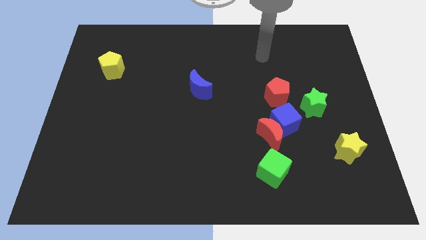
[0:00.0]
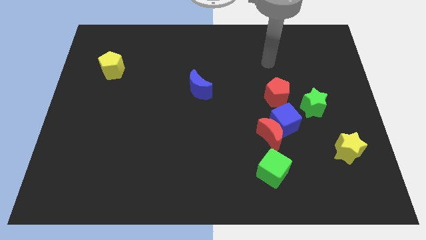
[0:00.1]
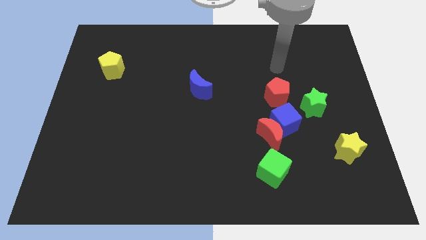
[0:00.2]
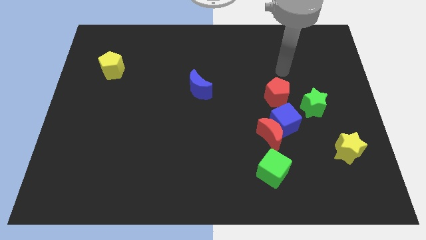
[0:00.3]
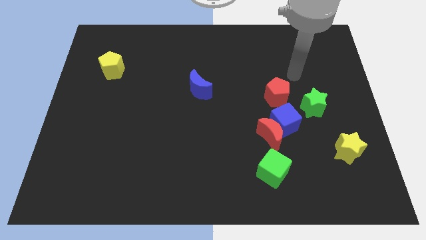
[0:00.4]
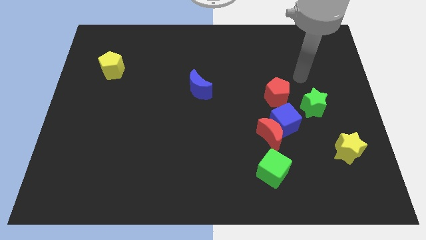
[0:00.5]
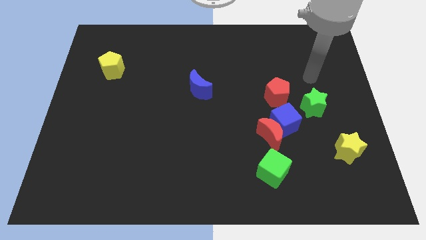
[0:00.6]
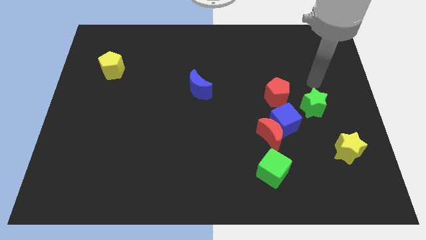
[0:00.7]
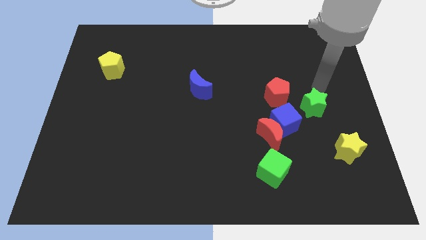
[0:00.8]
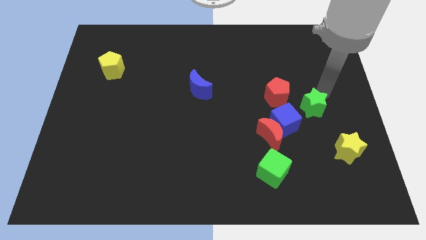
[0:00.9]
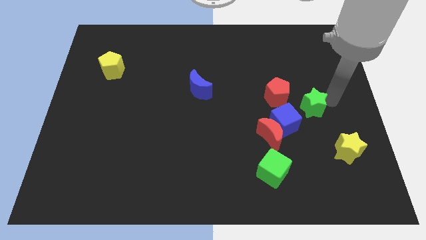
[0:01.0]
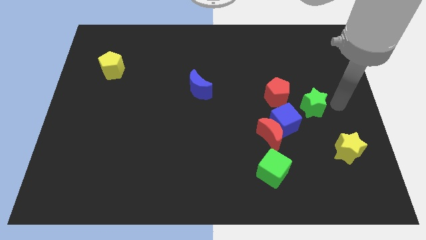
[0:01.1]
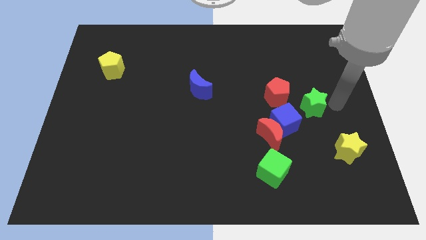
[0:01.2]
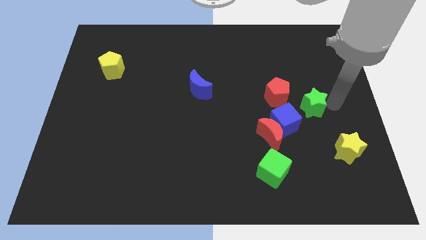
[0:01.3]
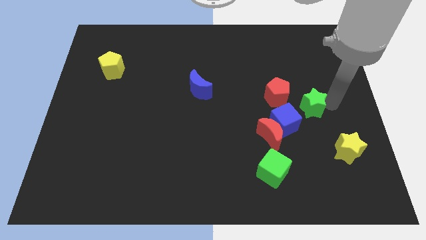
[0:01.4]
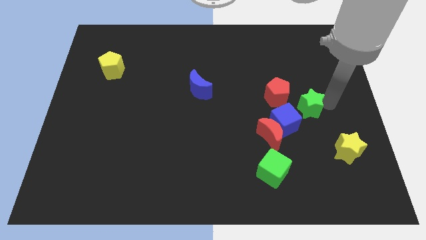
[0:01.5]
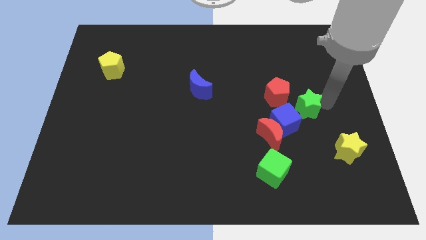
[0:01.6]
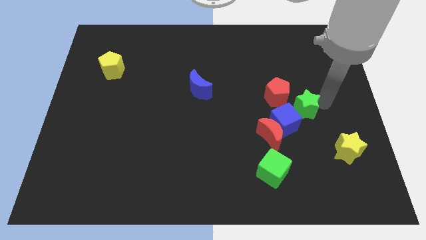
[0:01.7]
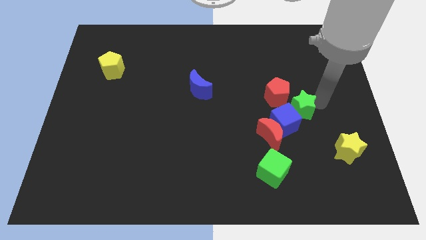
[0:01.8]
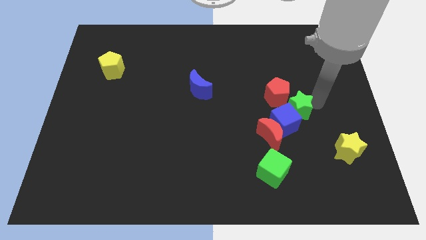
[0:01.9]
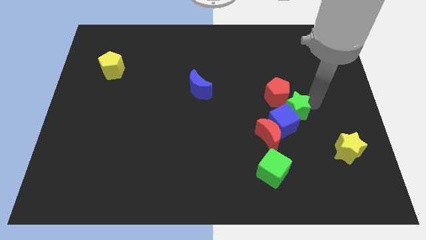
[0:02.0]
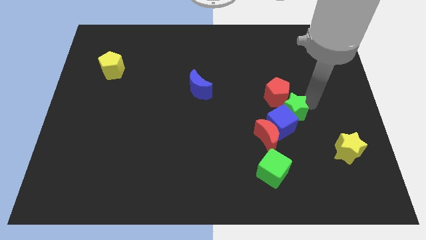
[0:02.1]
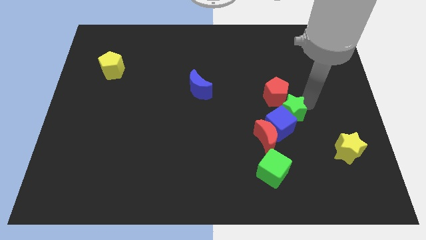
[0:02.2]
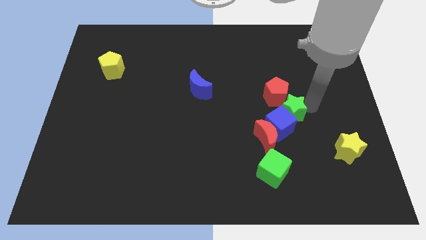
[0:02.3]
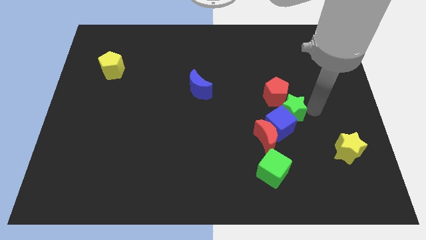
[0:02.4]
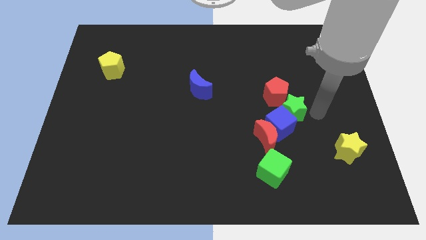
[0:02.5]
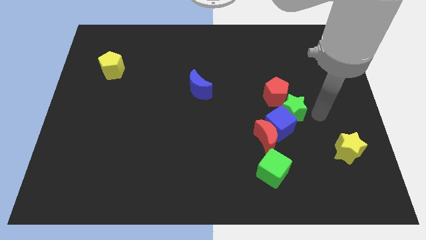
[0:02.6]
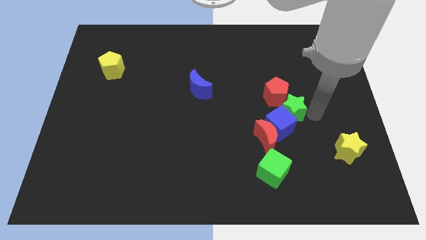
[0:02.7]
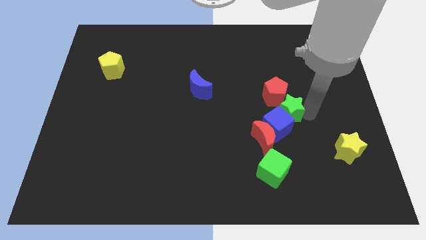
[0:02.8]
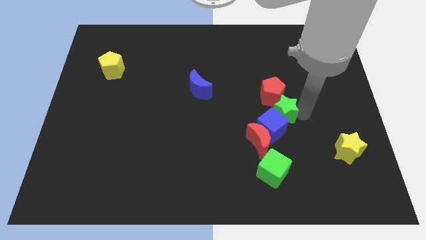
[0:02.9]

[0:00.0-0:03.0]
slightly slide the green star to the left

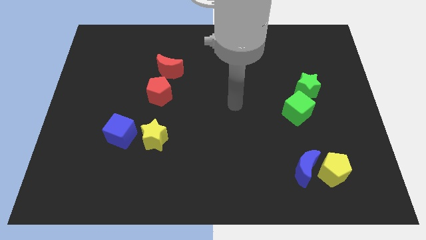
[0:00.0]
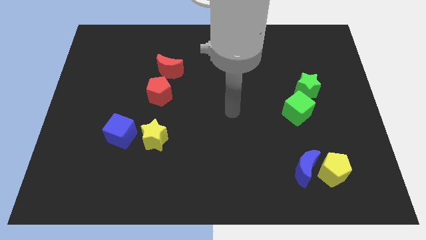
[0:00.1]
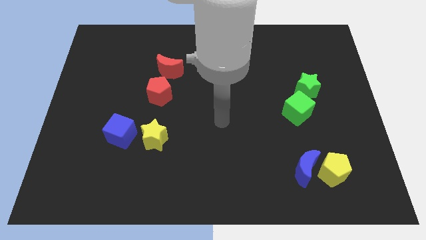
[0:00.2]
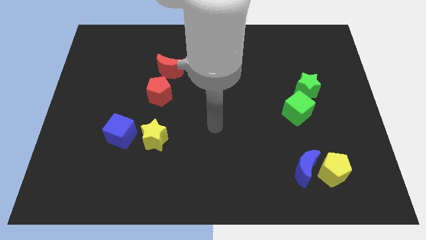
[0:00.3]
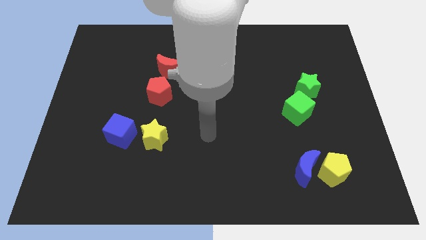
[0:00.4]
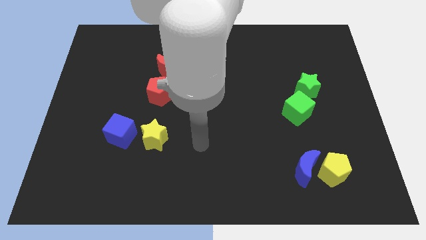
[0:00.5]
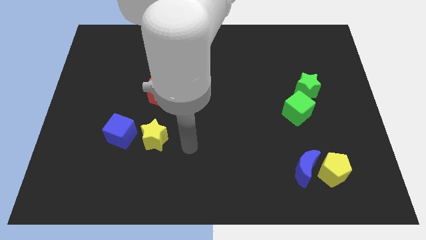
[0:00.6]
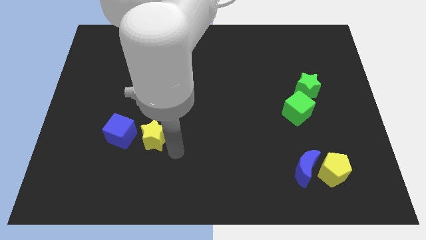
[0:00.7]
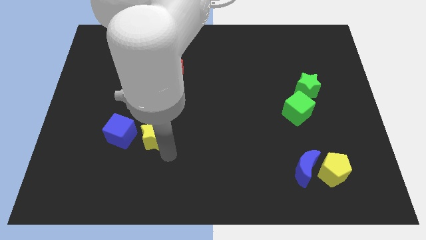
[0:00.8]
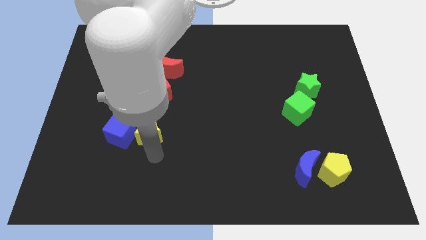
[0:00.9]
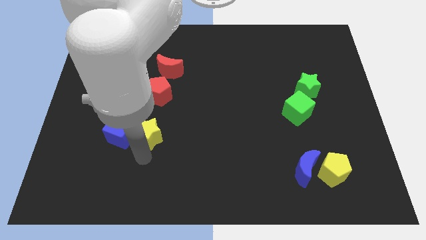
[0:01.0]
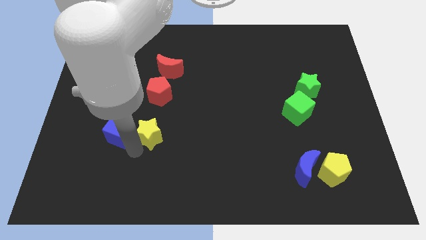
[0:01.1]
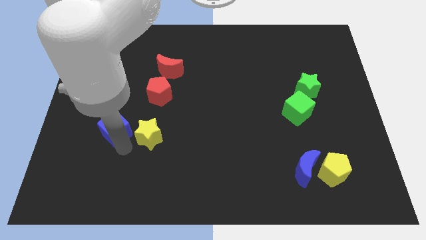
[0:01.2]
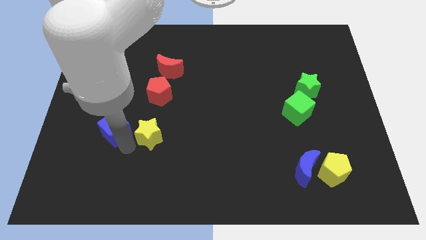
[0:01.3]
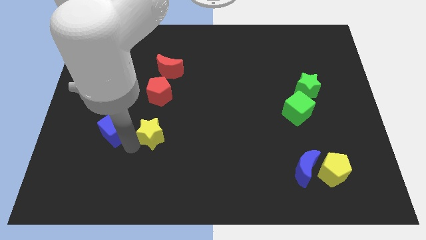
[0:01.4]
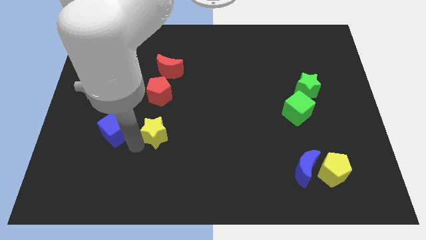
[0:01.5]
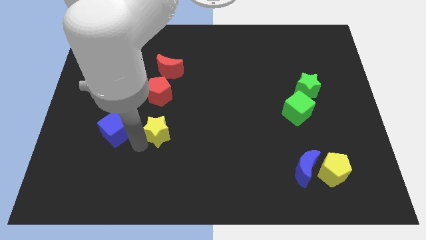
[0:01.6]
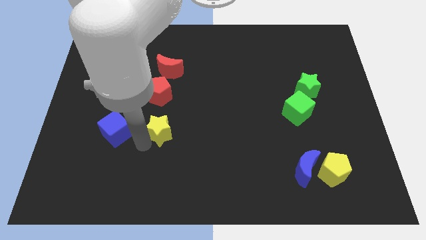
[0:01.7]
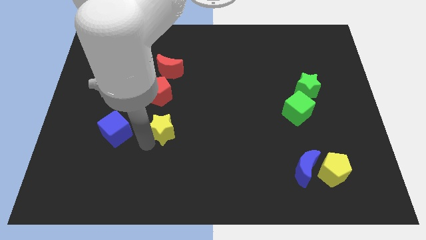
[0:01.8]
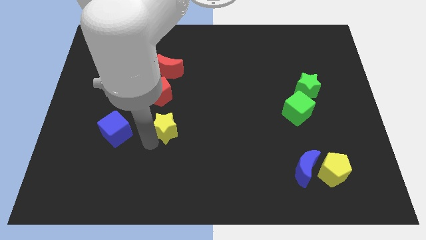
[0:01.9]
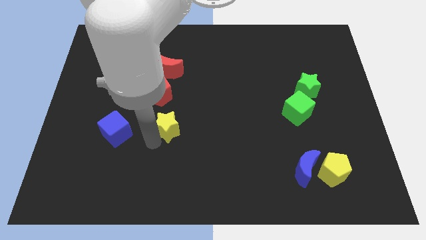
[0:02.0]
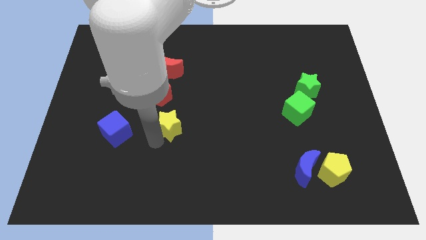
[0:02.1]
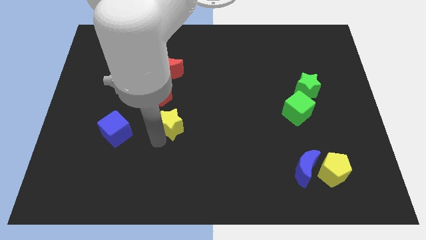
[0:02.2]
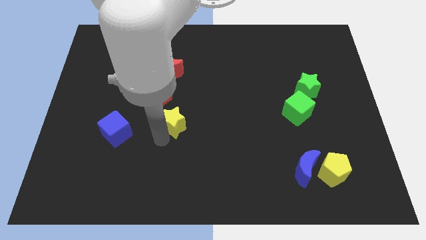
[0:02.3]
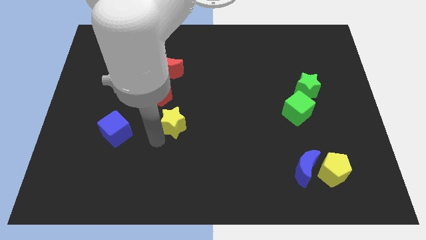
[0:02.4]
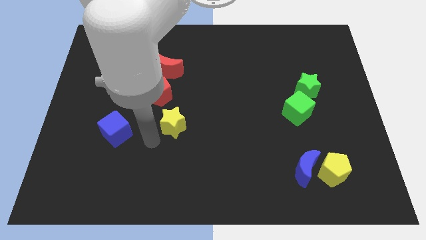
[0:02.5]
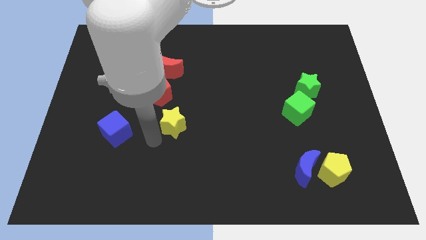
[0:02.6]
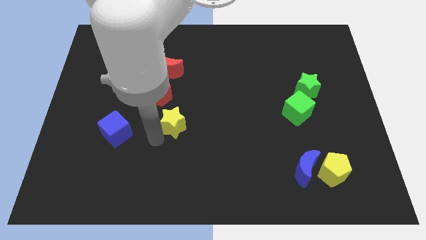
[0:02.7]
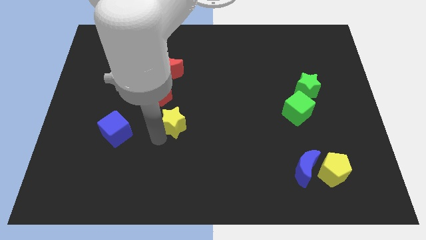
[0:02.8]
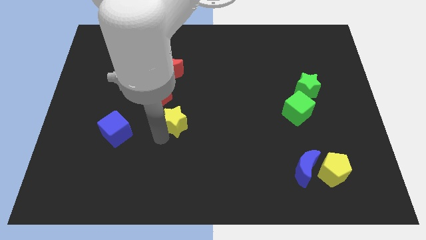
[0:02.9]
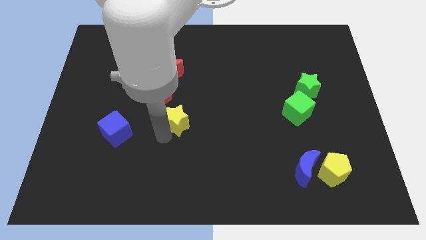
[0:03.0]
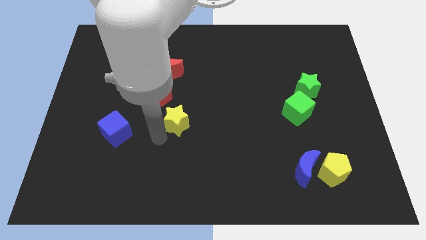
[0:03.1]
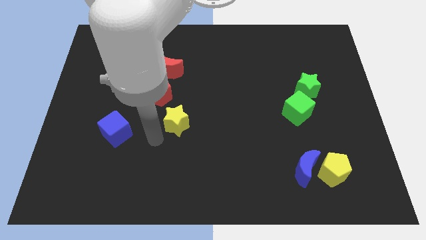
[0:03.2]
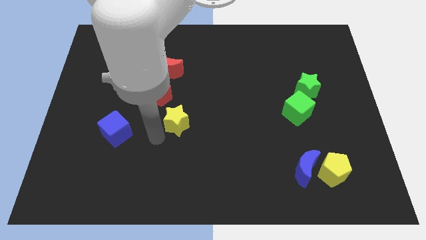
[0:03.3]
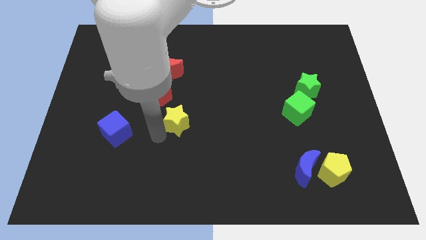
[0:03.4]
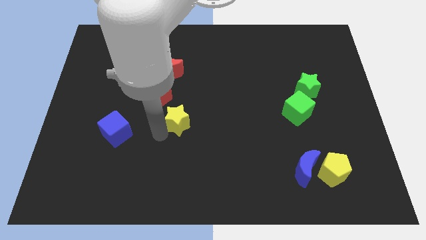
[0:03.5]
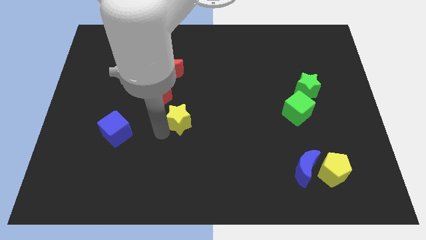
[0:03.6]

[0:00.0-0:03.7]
slightly move the yellow star up and to the right diagonally

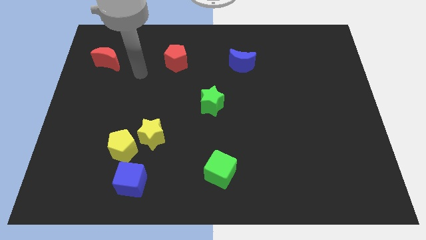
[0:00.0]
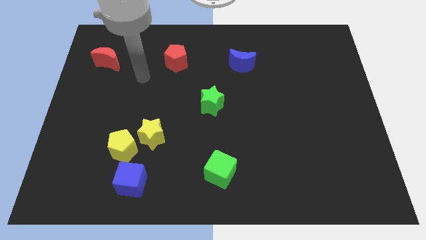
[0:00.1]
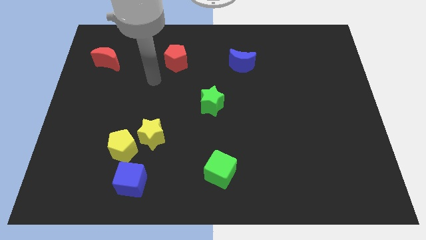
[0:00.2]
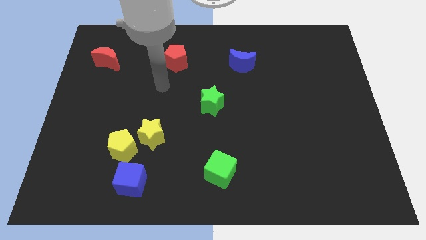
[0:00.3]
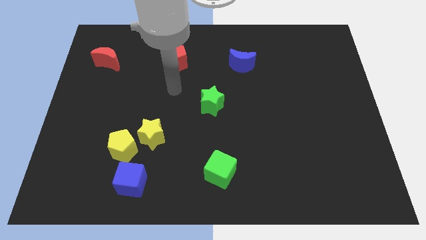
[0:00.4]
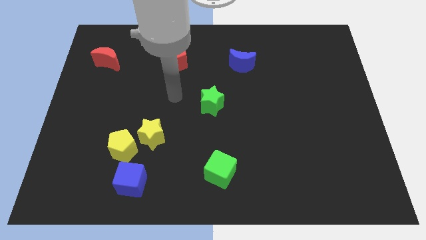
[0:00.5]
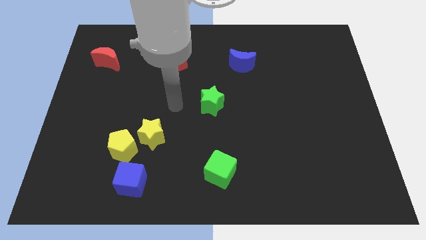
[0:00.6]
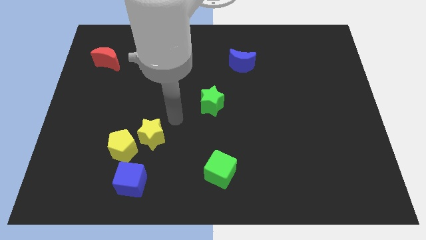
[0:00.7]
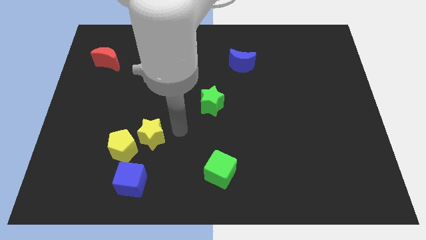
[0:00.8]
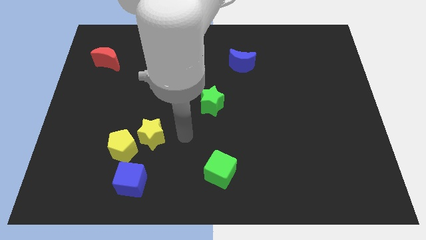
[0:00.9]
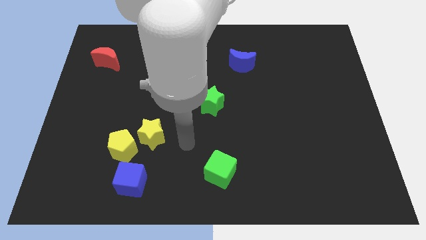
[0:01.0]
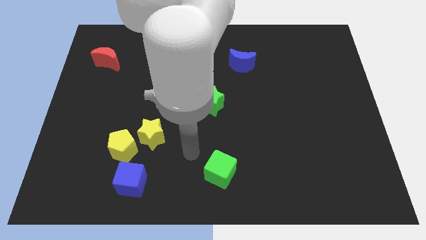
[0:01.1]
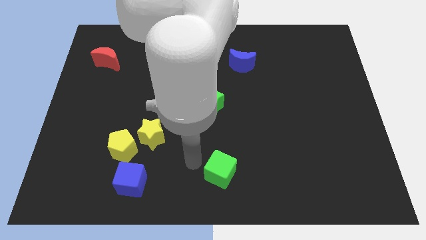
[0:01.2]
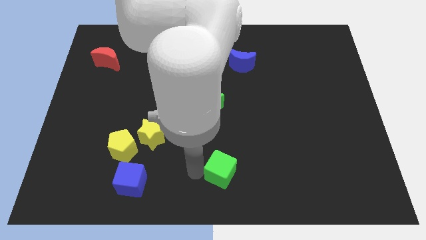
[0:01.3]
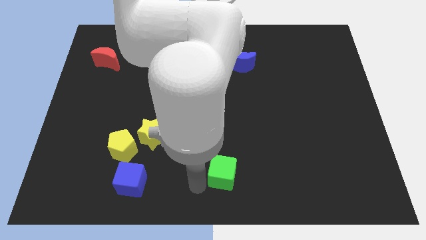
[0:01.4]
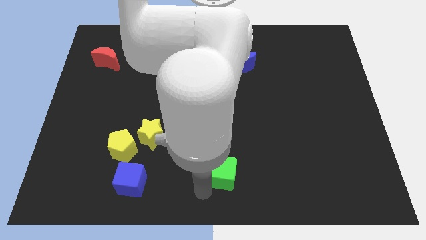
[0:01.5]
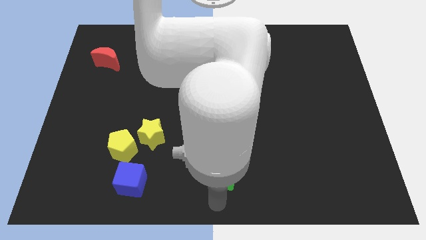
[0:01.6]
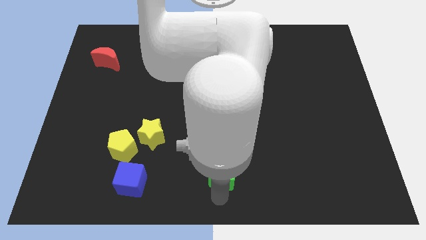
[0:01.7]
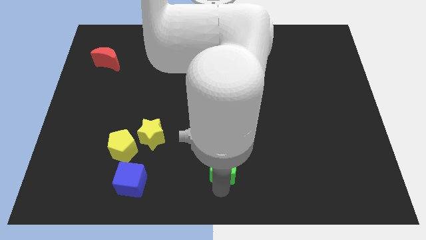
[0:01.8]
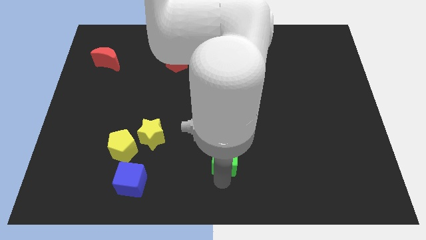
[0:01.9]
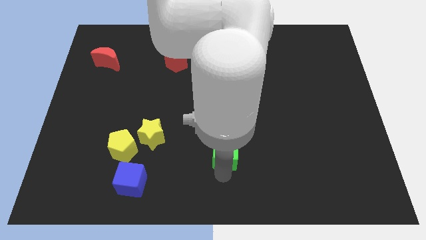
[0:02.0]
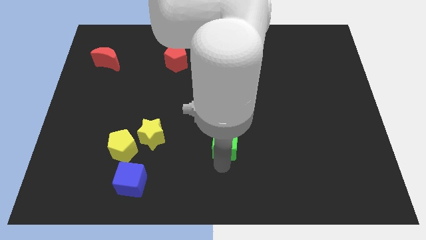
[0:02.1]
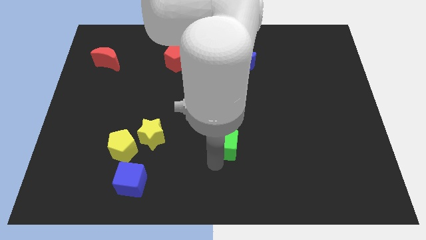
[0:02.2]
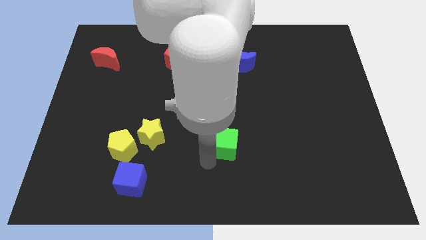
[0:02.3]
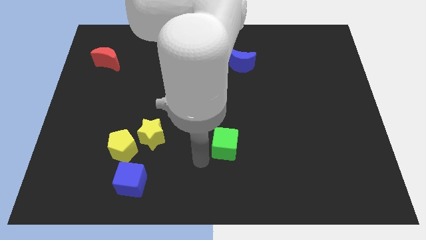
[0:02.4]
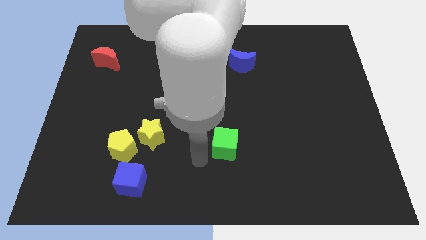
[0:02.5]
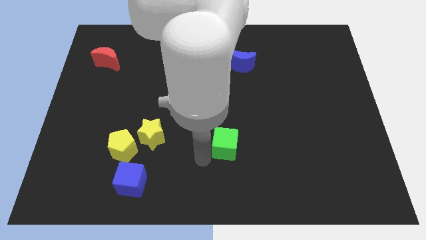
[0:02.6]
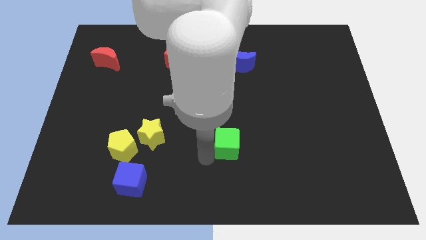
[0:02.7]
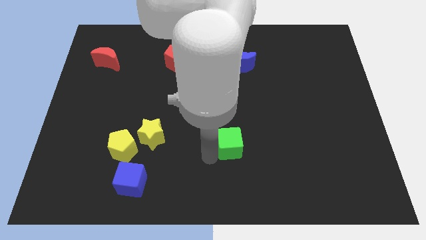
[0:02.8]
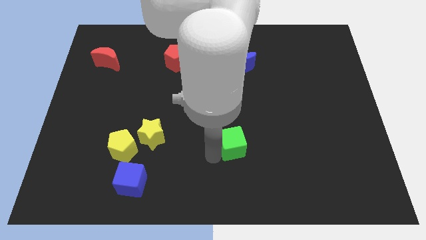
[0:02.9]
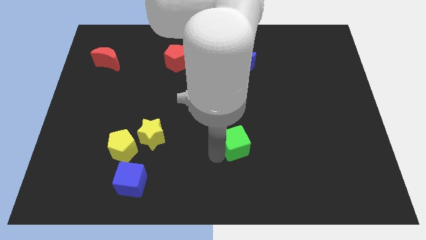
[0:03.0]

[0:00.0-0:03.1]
slightly slide the green cube upwards and to the right
